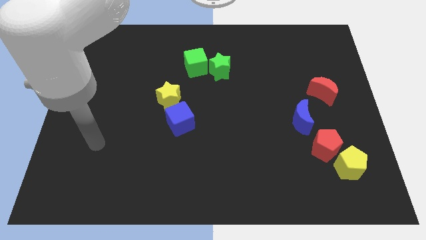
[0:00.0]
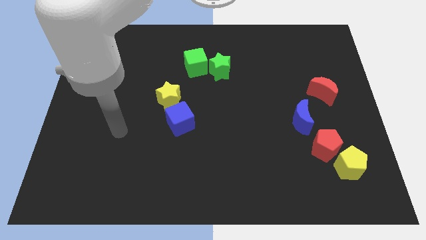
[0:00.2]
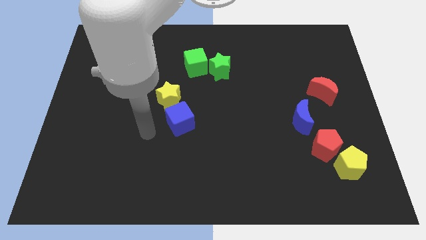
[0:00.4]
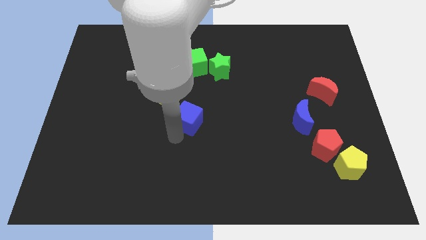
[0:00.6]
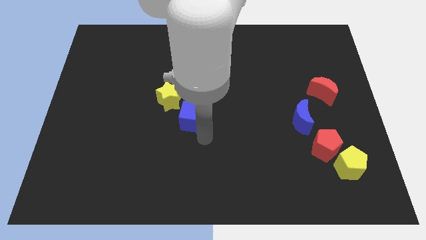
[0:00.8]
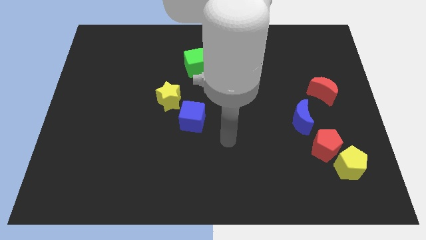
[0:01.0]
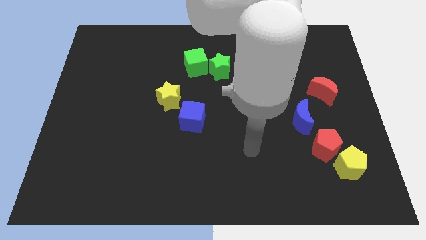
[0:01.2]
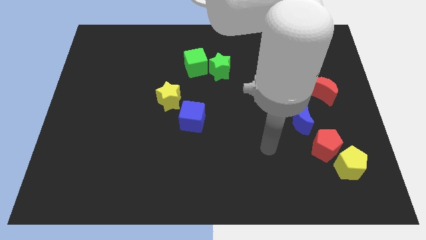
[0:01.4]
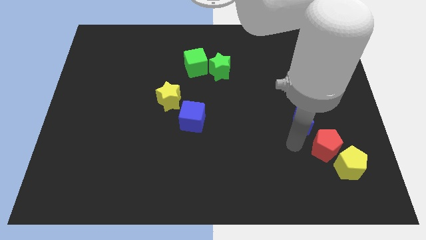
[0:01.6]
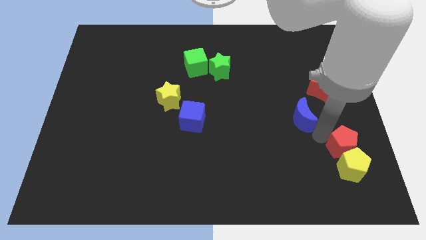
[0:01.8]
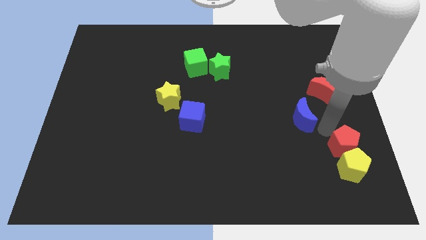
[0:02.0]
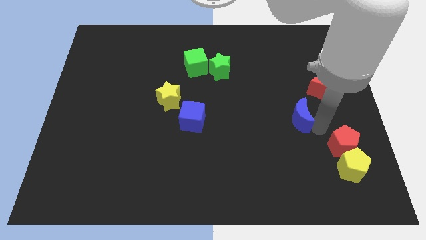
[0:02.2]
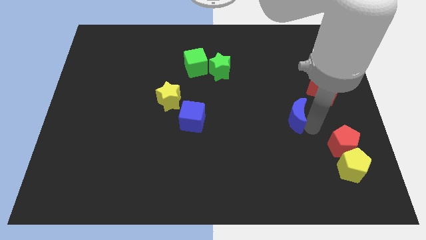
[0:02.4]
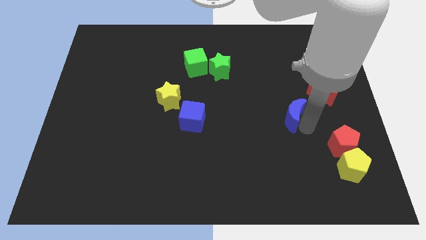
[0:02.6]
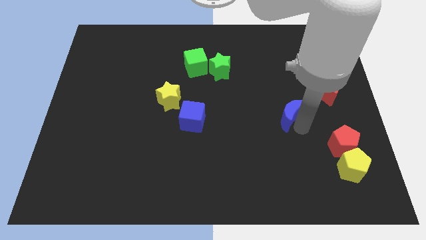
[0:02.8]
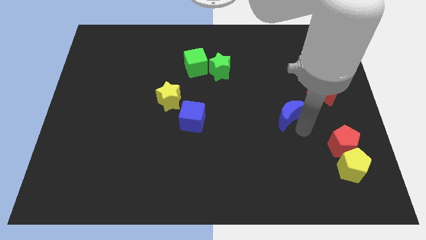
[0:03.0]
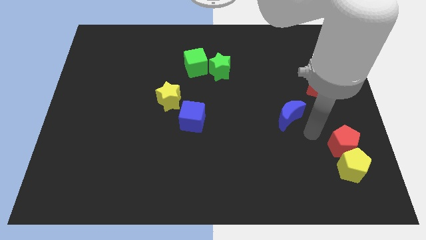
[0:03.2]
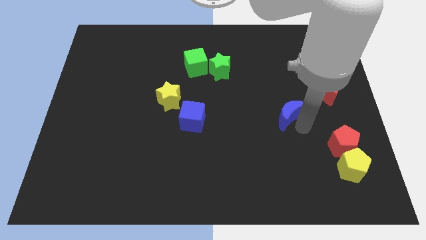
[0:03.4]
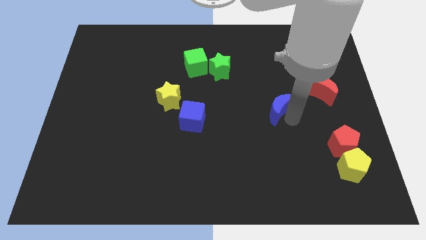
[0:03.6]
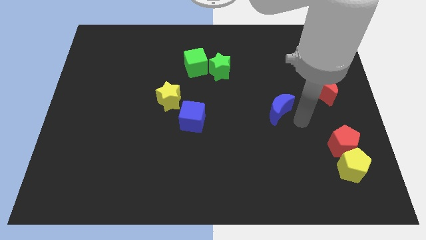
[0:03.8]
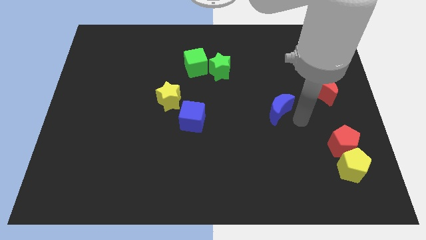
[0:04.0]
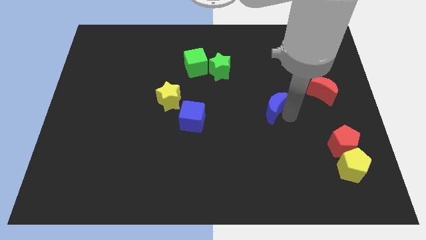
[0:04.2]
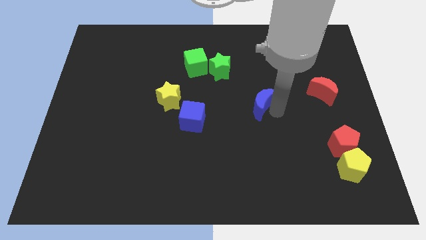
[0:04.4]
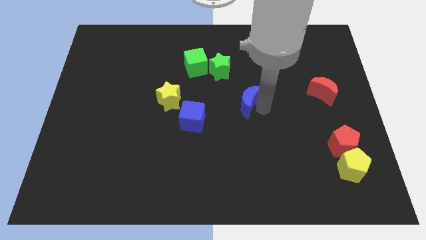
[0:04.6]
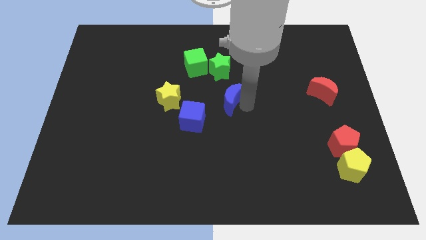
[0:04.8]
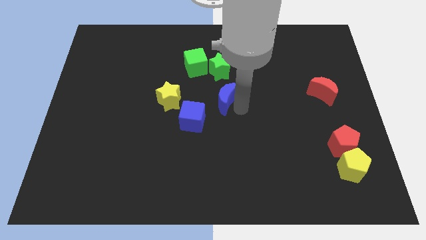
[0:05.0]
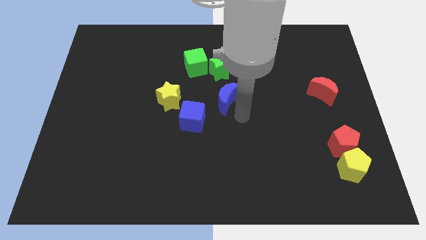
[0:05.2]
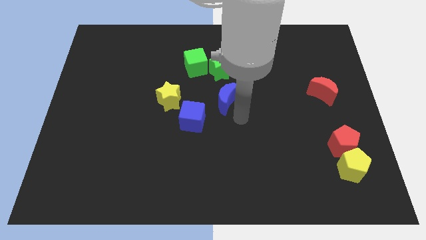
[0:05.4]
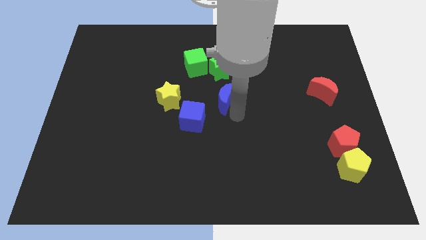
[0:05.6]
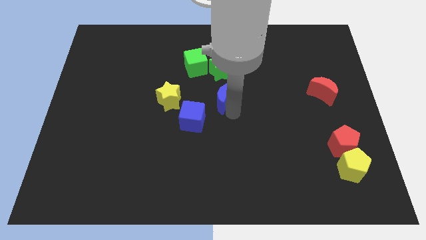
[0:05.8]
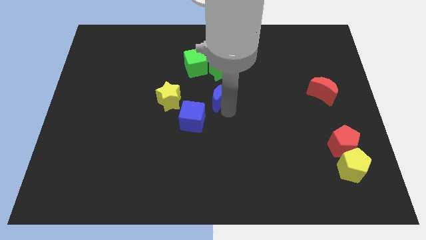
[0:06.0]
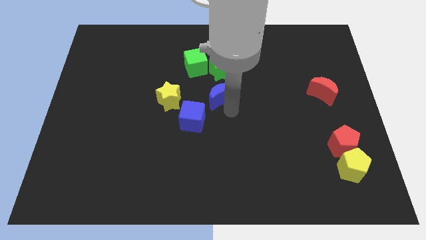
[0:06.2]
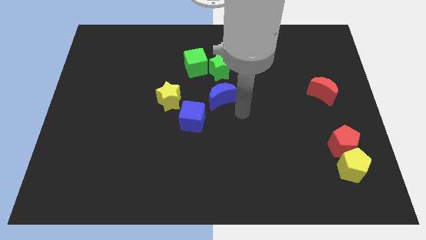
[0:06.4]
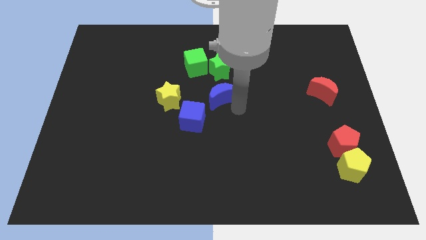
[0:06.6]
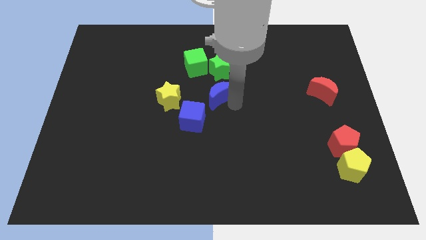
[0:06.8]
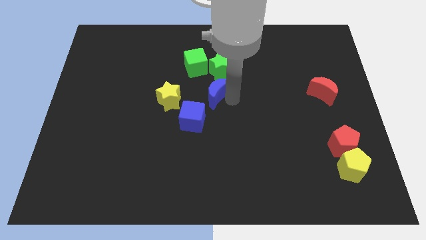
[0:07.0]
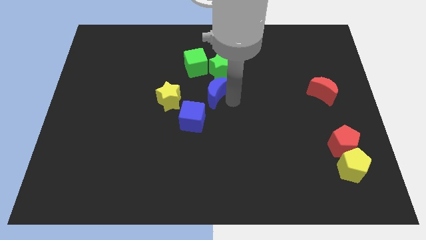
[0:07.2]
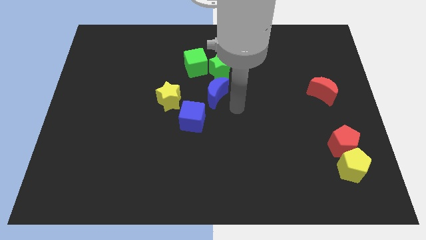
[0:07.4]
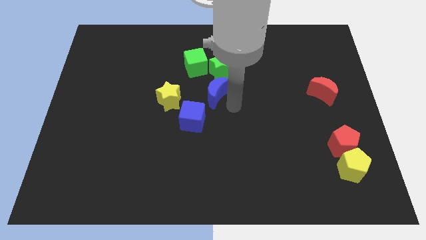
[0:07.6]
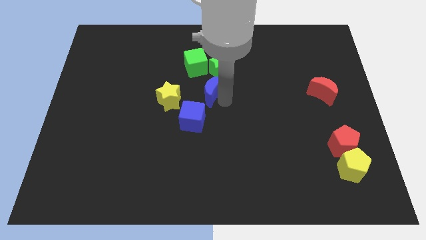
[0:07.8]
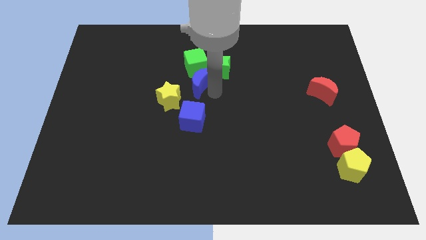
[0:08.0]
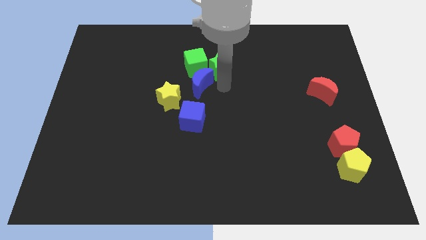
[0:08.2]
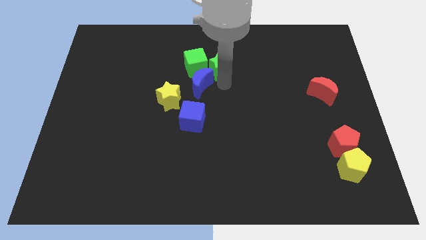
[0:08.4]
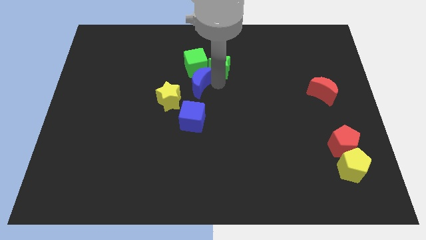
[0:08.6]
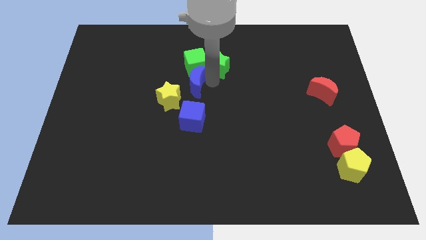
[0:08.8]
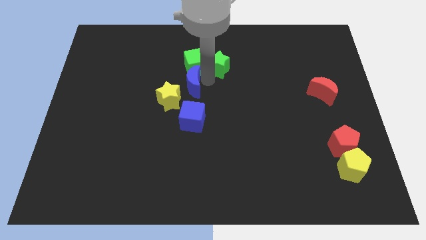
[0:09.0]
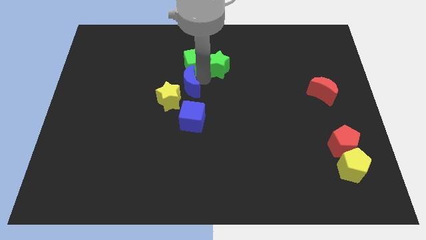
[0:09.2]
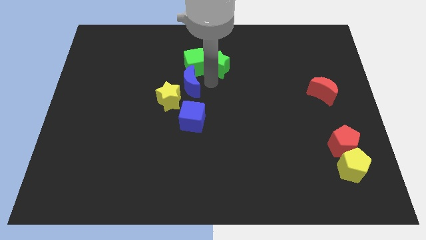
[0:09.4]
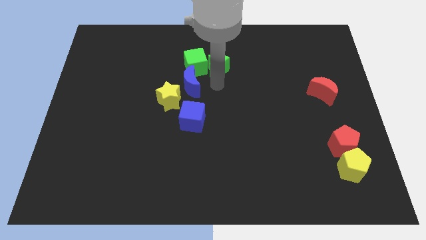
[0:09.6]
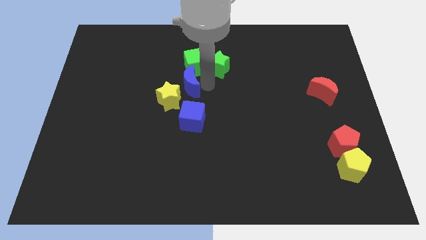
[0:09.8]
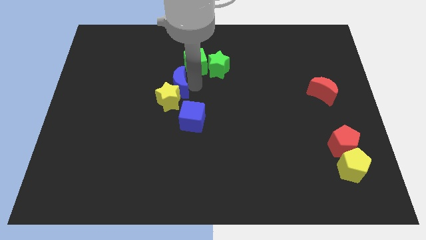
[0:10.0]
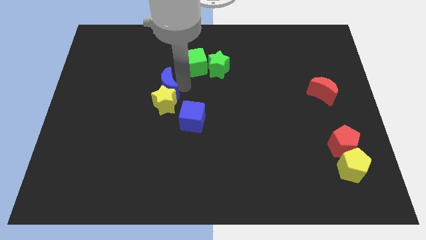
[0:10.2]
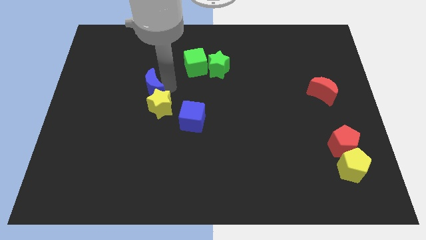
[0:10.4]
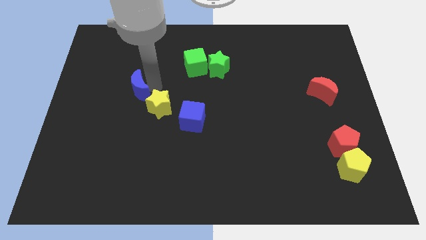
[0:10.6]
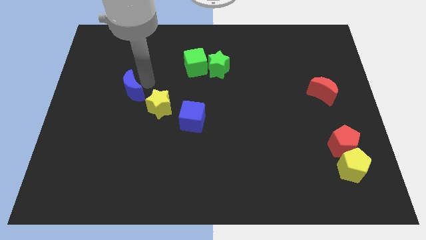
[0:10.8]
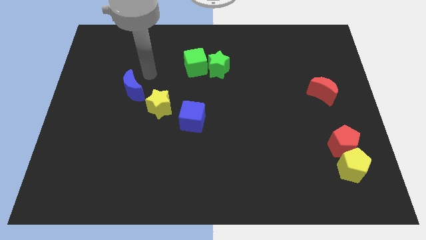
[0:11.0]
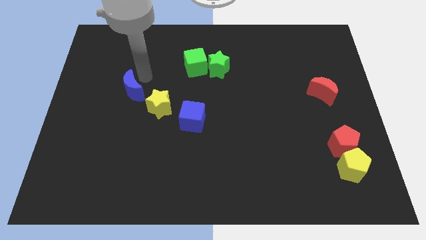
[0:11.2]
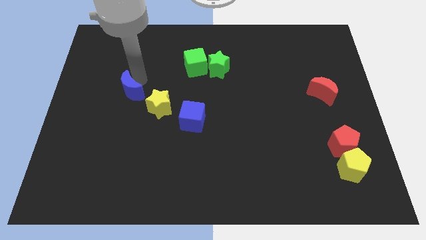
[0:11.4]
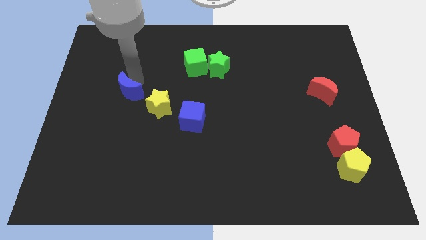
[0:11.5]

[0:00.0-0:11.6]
push the blue moon to the left side of the yellow star

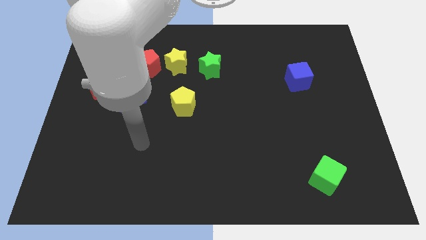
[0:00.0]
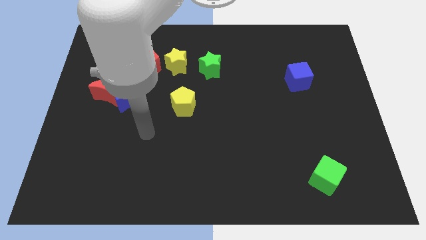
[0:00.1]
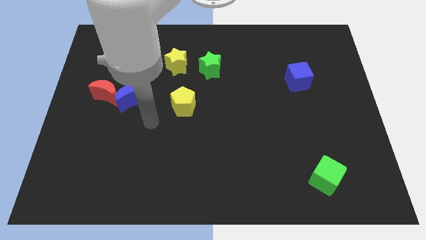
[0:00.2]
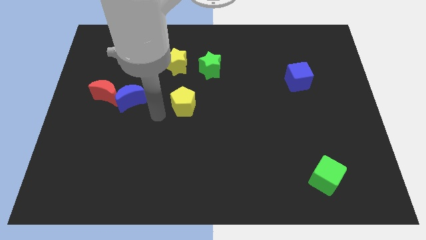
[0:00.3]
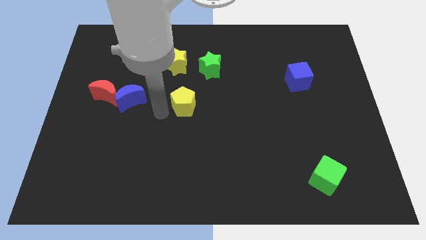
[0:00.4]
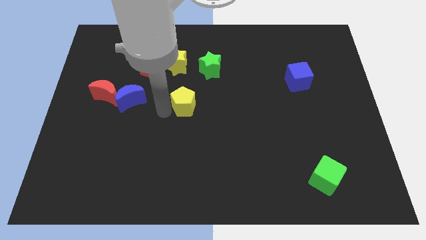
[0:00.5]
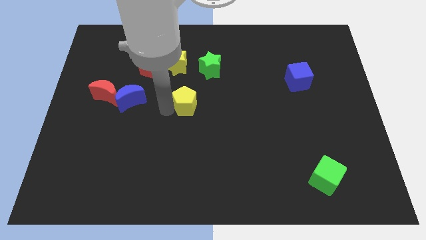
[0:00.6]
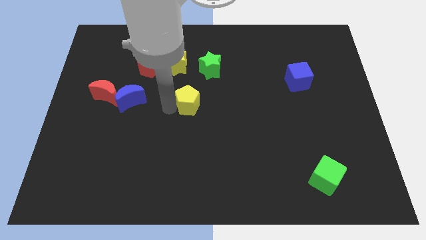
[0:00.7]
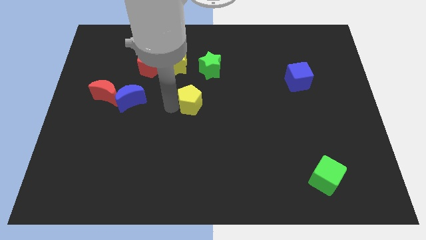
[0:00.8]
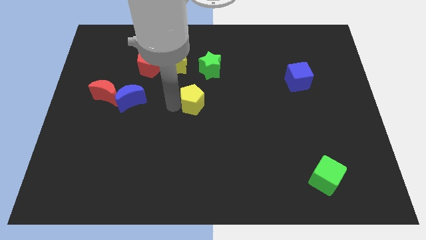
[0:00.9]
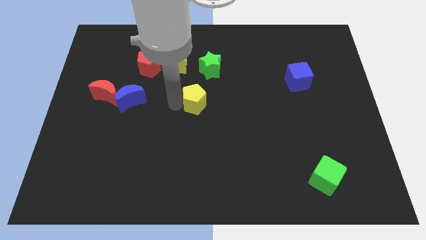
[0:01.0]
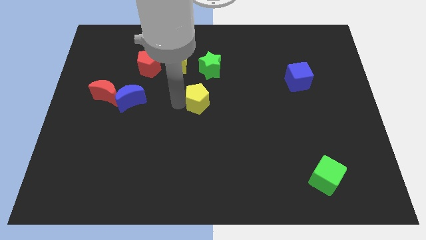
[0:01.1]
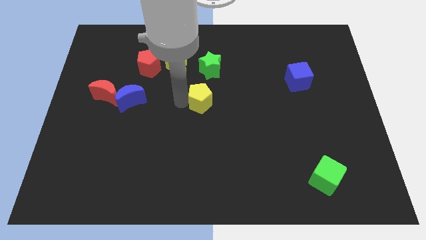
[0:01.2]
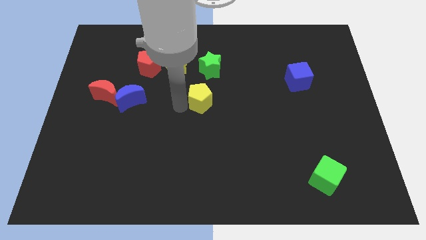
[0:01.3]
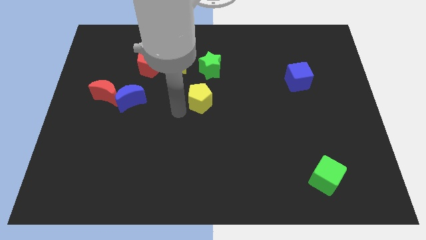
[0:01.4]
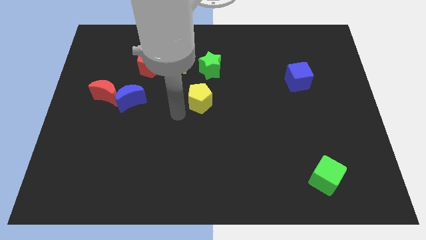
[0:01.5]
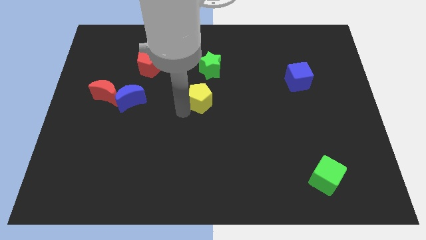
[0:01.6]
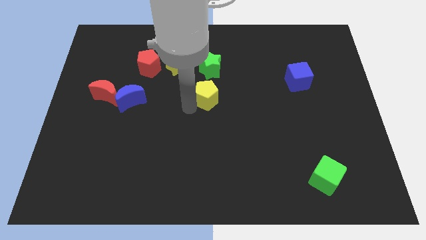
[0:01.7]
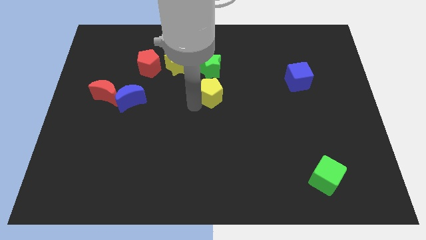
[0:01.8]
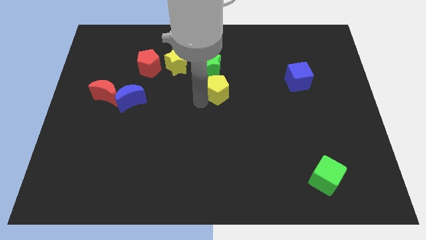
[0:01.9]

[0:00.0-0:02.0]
push the yellow pentagon to the bottom right of the green star
